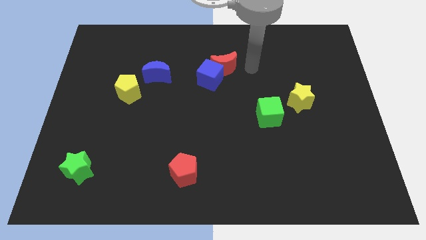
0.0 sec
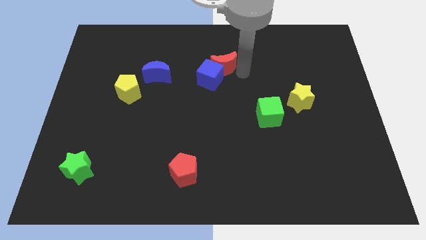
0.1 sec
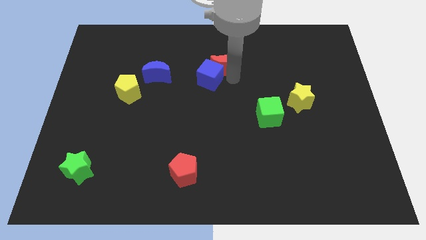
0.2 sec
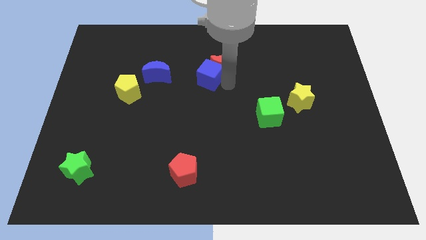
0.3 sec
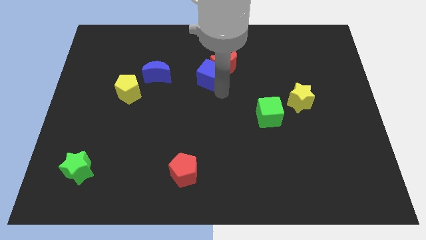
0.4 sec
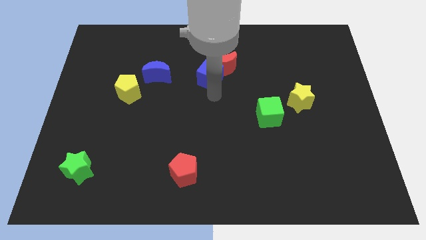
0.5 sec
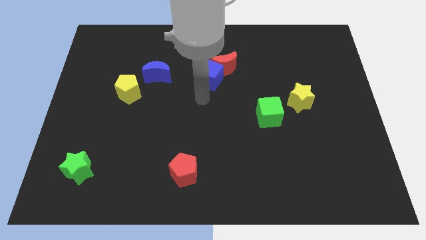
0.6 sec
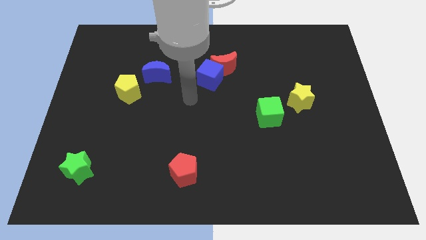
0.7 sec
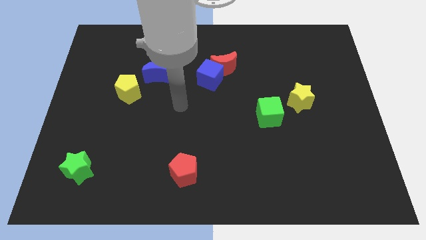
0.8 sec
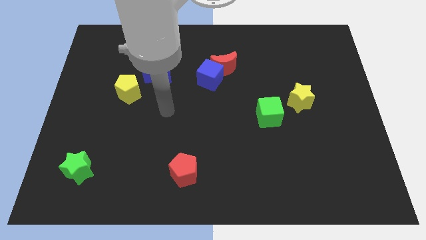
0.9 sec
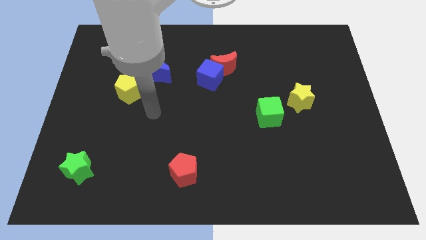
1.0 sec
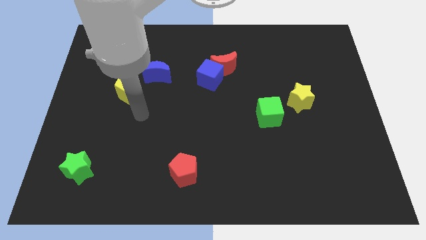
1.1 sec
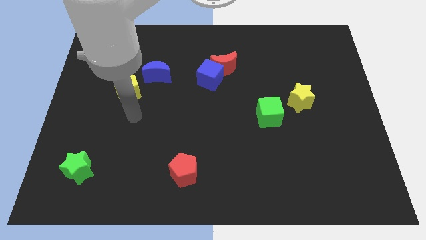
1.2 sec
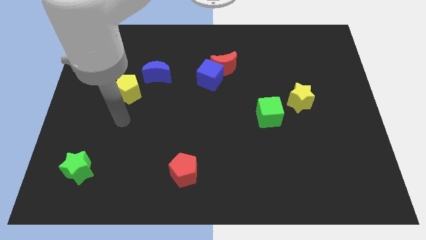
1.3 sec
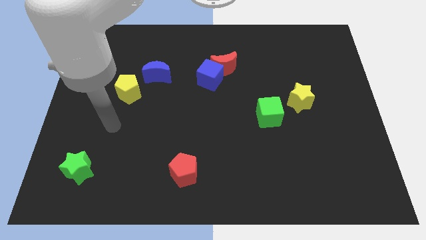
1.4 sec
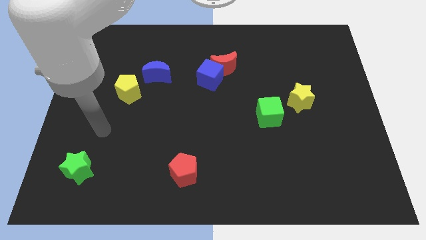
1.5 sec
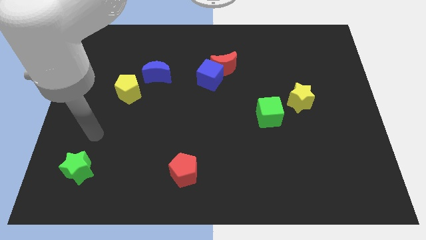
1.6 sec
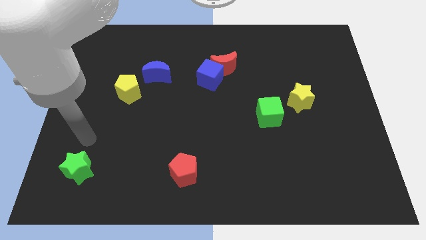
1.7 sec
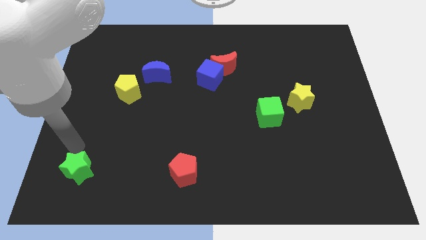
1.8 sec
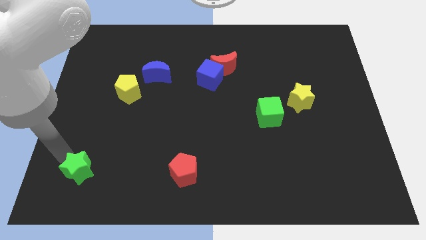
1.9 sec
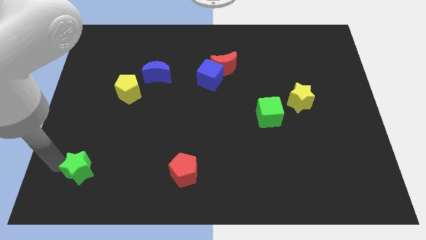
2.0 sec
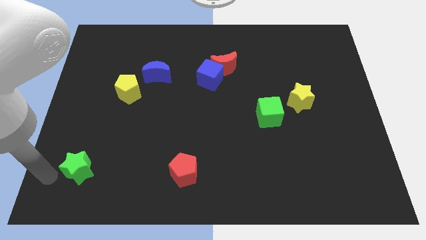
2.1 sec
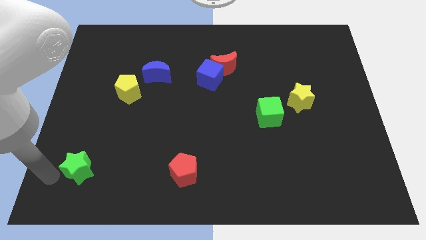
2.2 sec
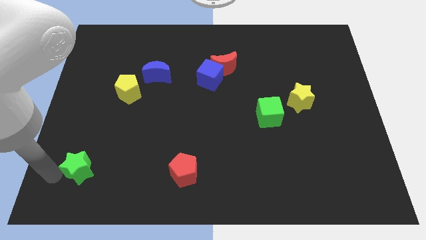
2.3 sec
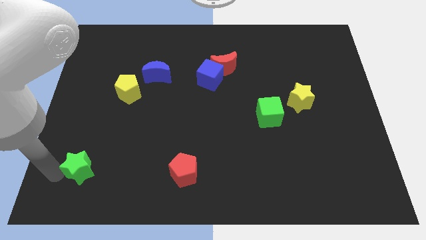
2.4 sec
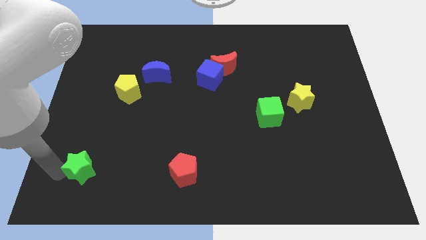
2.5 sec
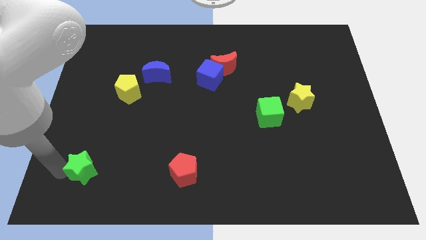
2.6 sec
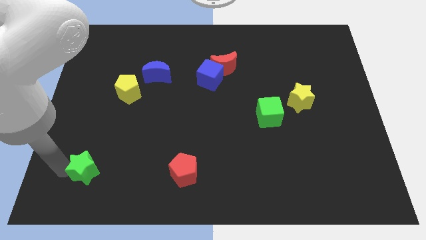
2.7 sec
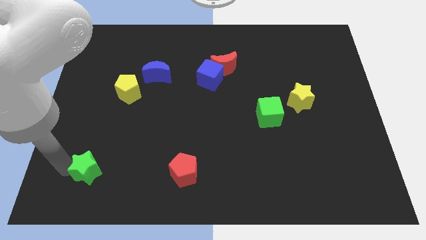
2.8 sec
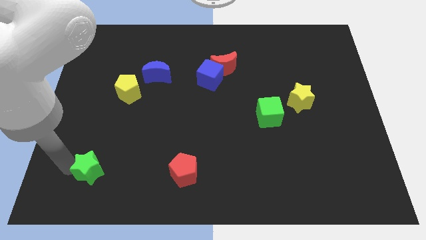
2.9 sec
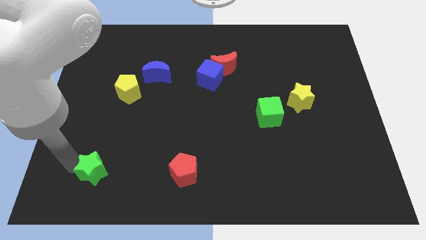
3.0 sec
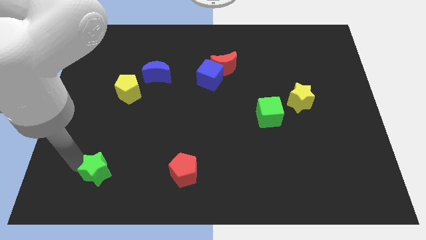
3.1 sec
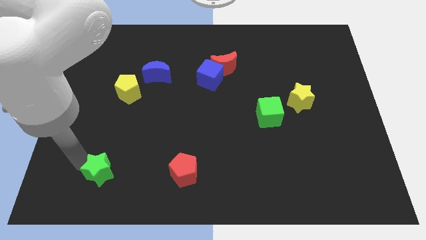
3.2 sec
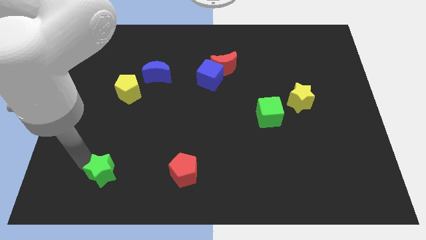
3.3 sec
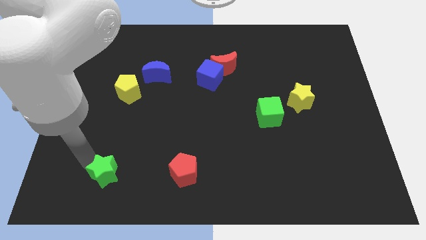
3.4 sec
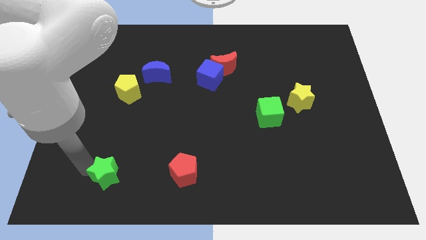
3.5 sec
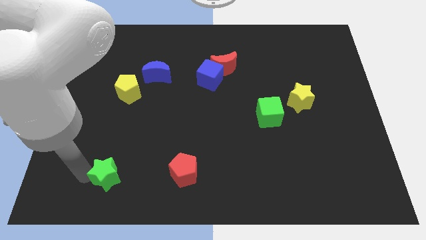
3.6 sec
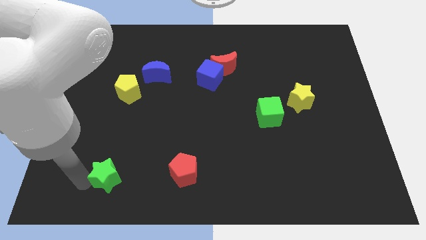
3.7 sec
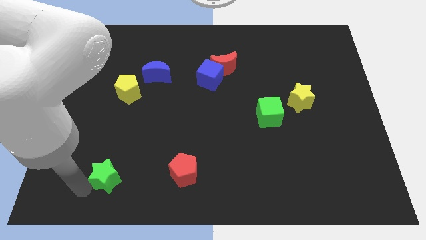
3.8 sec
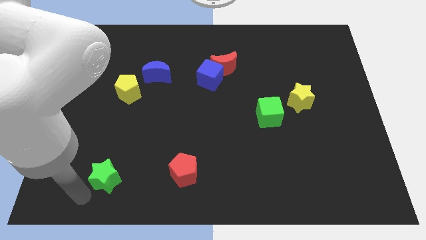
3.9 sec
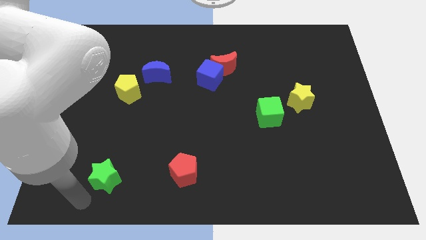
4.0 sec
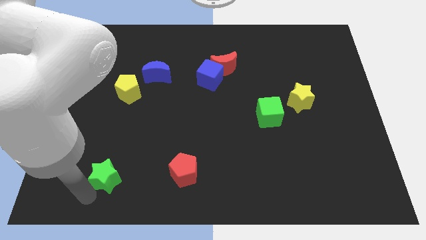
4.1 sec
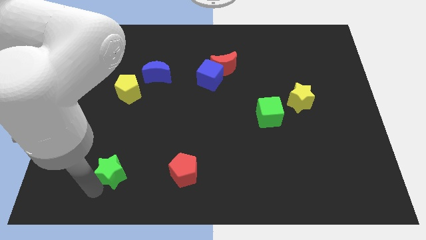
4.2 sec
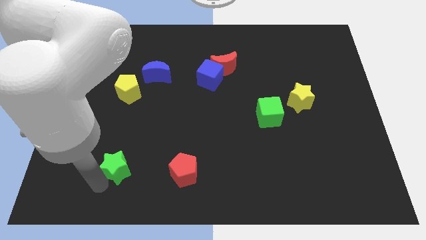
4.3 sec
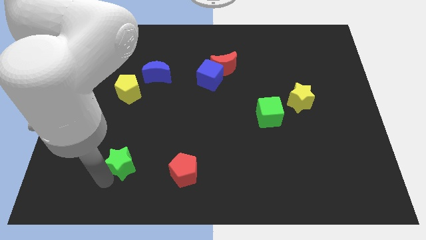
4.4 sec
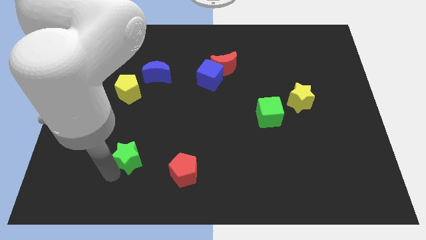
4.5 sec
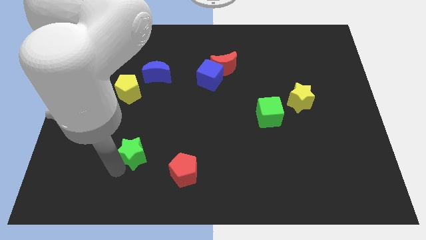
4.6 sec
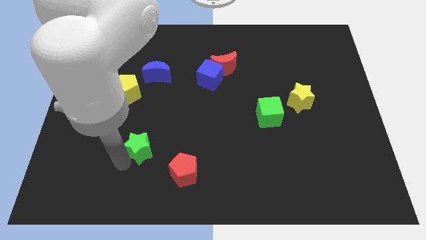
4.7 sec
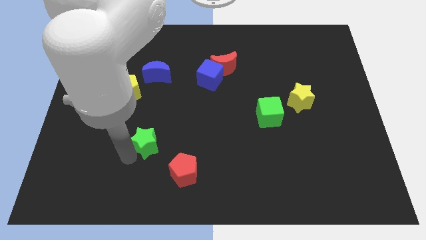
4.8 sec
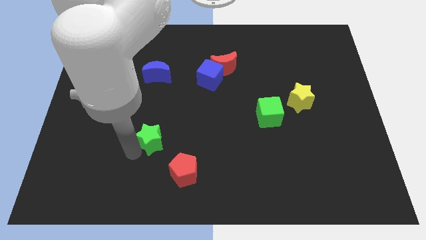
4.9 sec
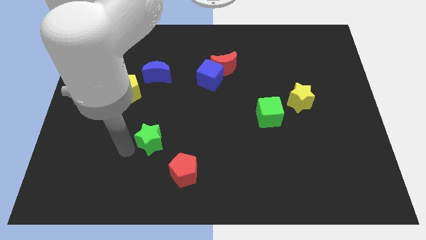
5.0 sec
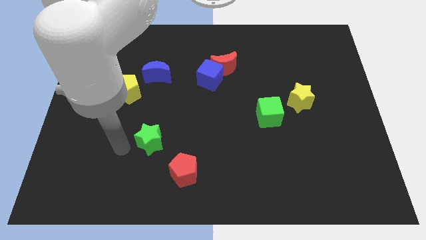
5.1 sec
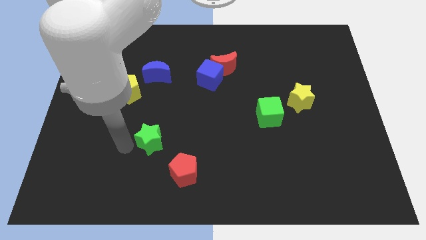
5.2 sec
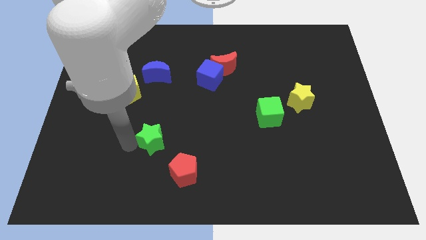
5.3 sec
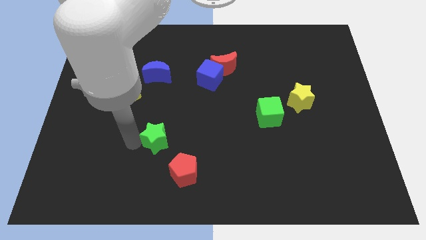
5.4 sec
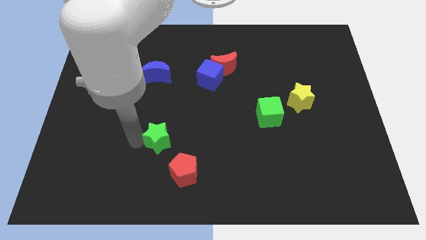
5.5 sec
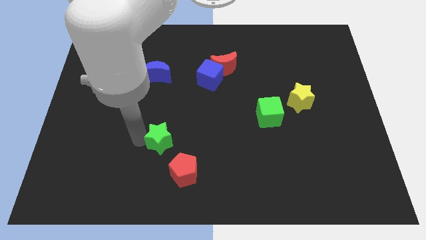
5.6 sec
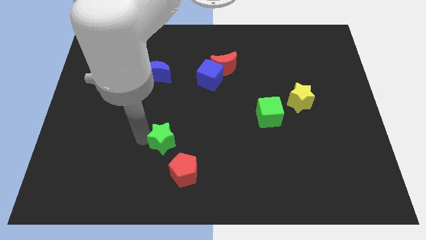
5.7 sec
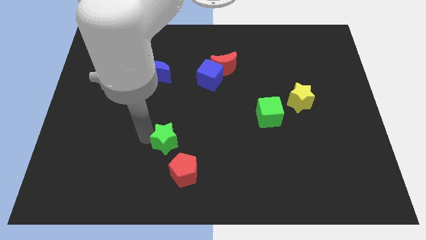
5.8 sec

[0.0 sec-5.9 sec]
move the green star above the red pentagon

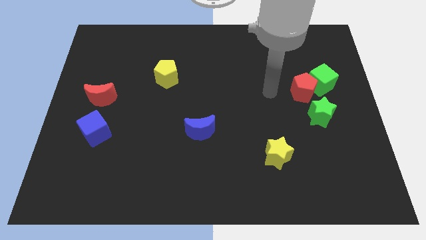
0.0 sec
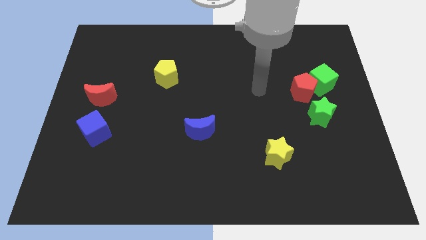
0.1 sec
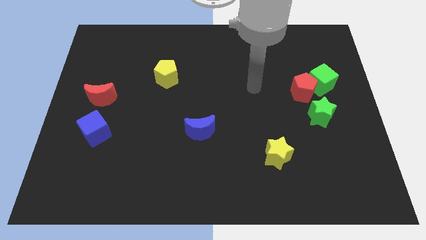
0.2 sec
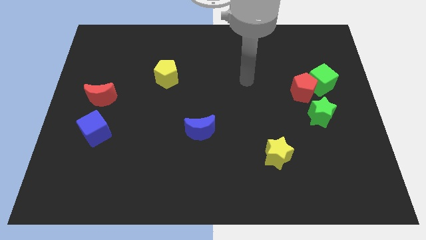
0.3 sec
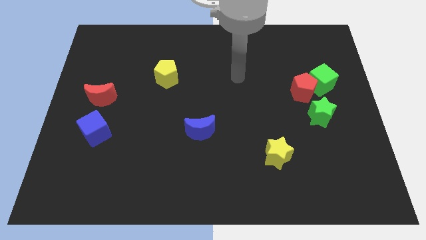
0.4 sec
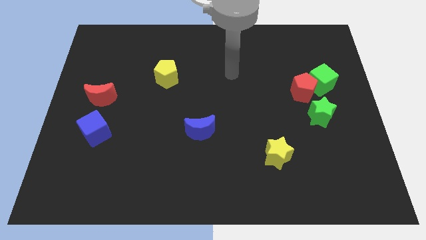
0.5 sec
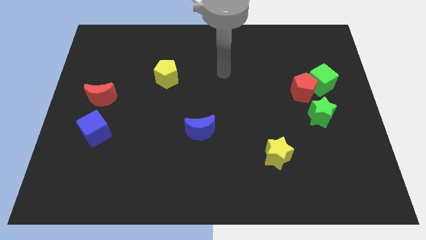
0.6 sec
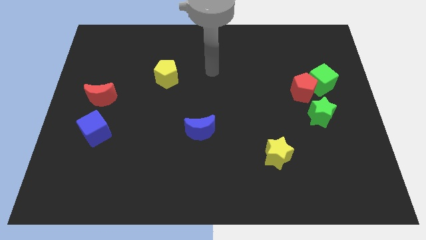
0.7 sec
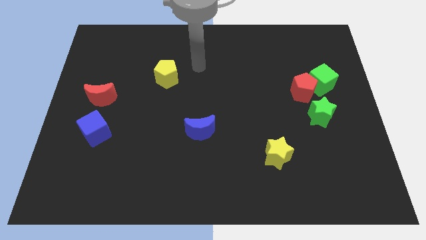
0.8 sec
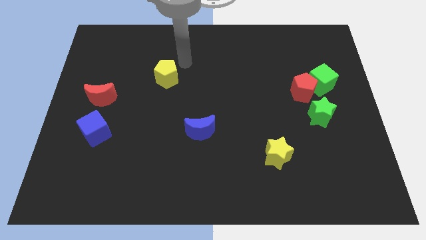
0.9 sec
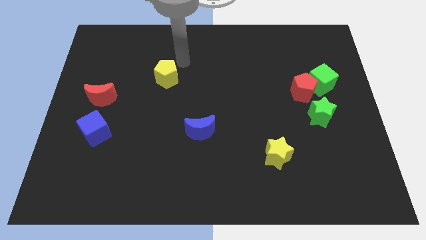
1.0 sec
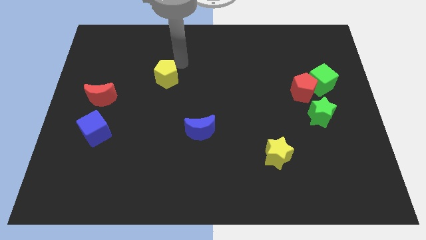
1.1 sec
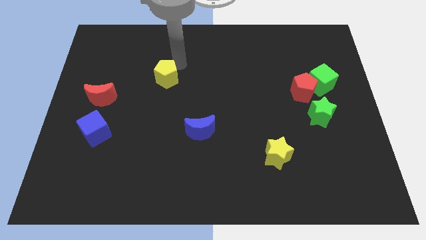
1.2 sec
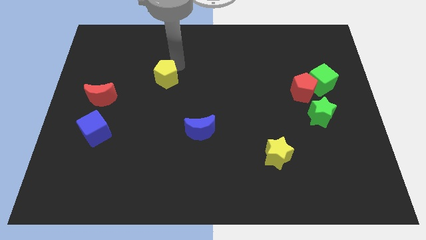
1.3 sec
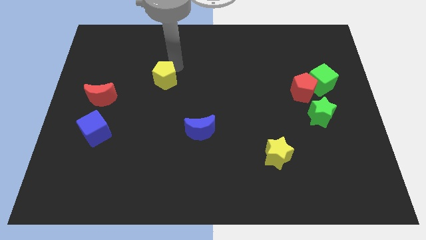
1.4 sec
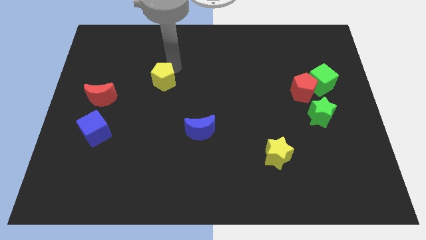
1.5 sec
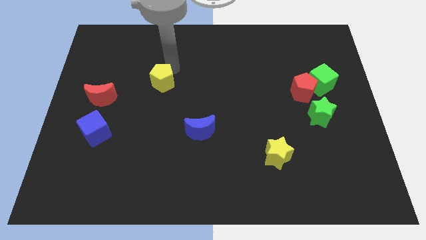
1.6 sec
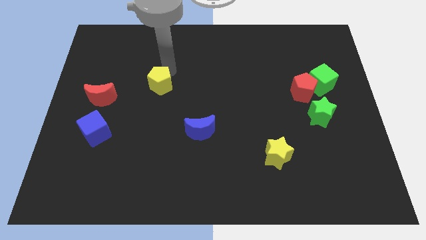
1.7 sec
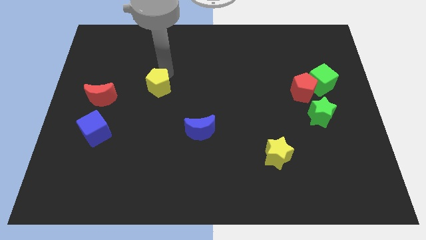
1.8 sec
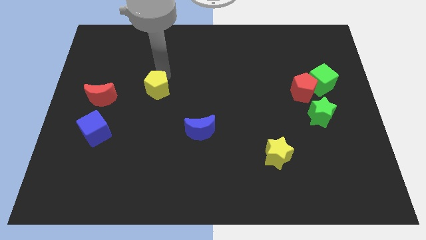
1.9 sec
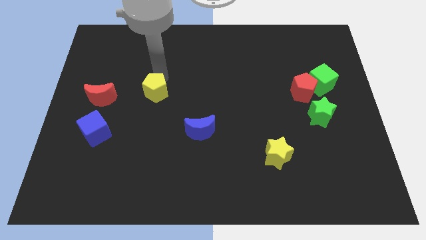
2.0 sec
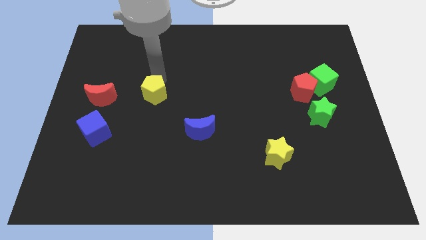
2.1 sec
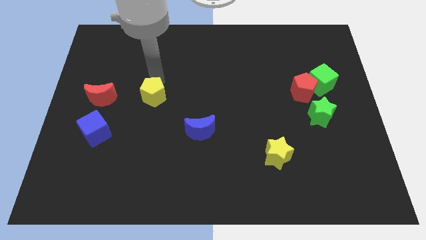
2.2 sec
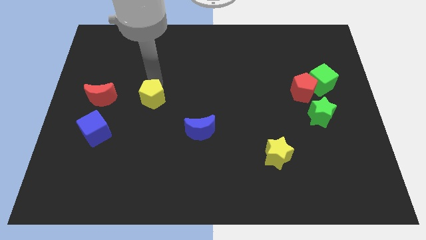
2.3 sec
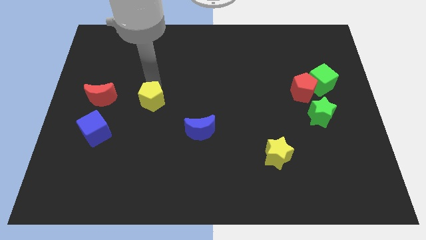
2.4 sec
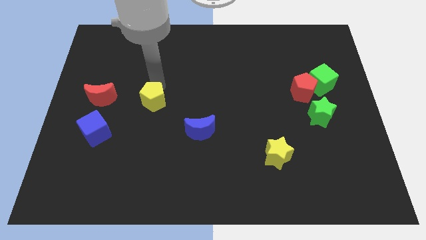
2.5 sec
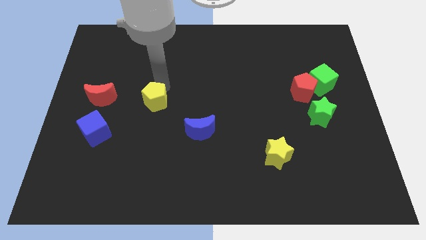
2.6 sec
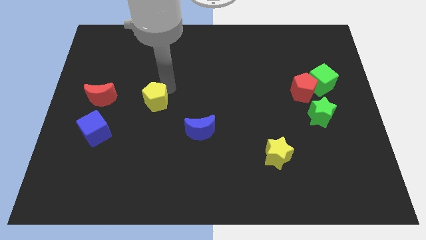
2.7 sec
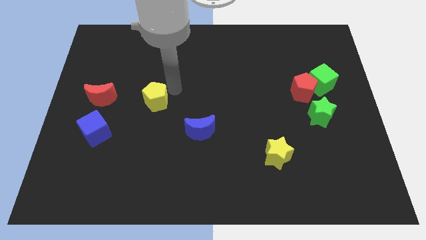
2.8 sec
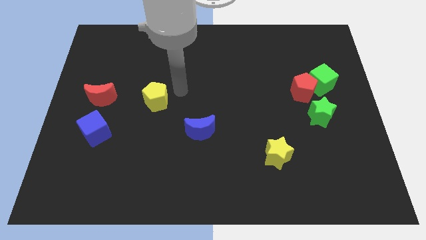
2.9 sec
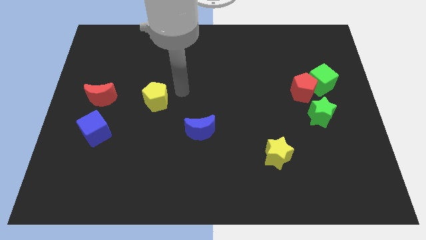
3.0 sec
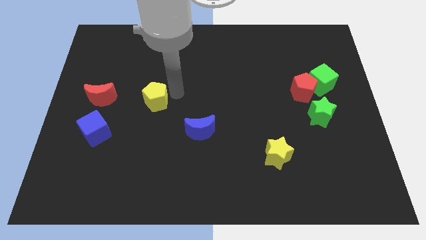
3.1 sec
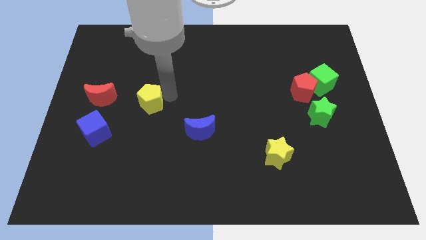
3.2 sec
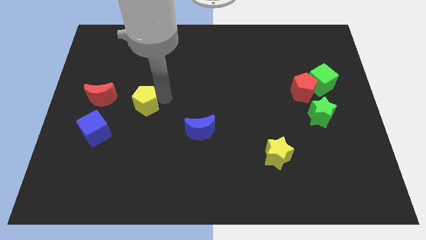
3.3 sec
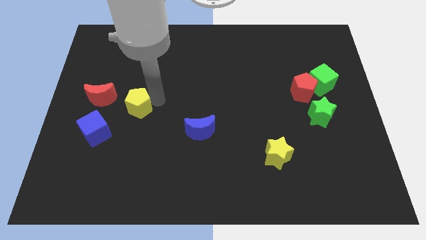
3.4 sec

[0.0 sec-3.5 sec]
put the yellow pentagon diagonally down and to the right of the red moon
